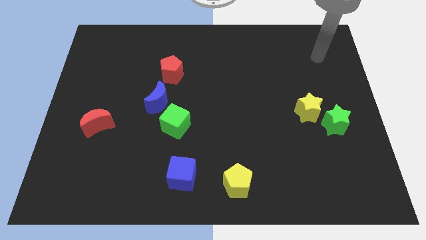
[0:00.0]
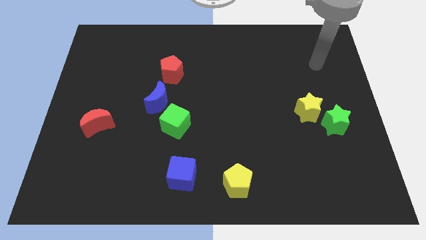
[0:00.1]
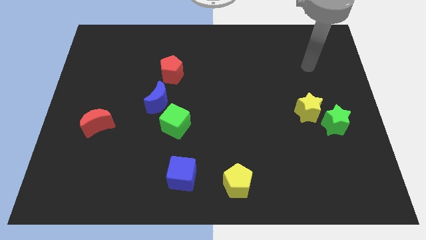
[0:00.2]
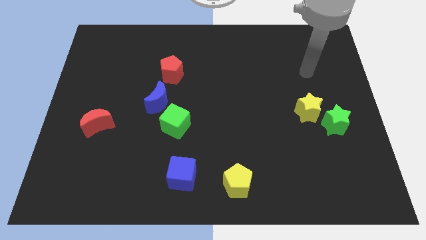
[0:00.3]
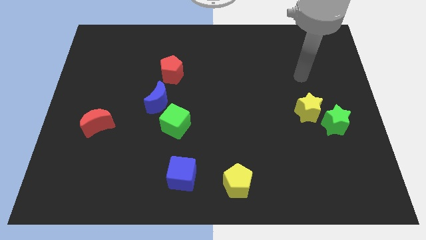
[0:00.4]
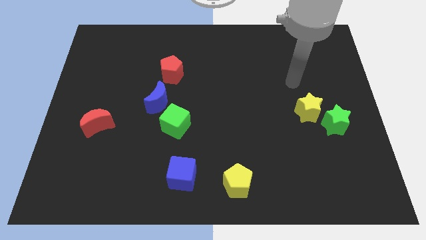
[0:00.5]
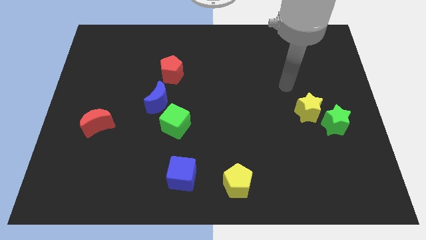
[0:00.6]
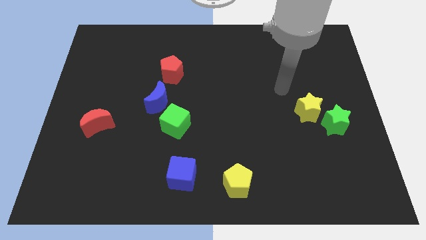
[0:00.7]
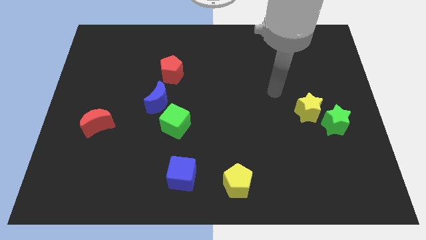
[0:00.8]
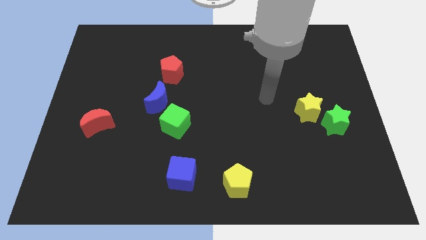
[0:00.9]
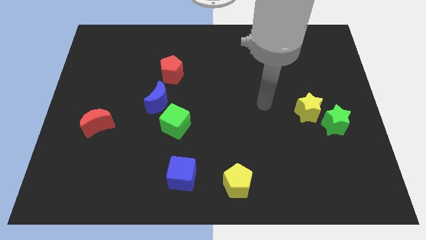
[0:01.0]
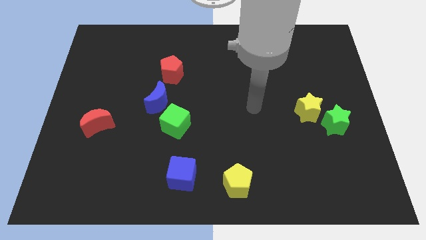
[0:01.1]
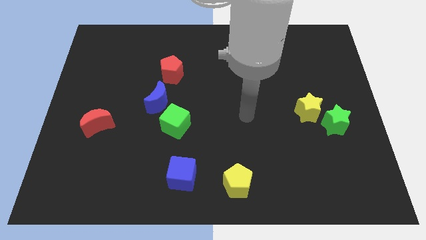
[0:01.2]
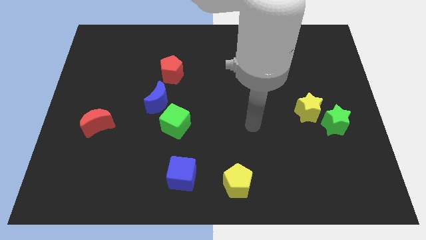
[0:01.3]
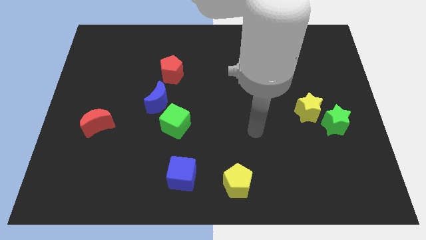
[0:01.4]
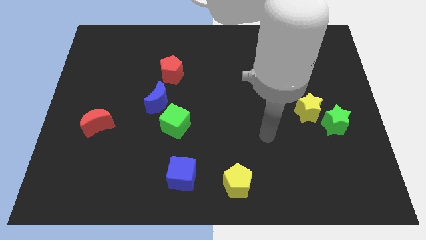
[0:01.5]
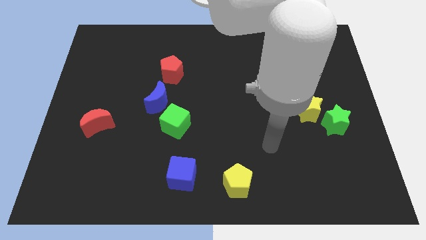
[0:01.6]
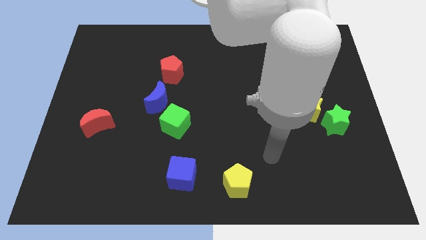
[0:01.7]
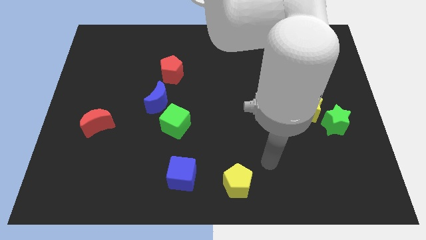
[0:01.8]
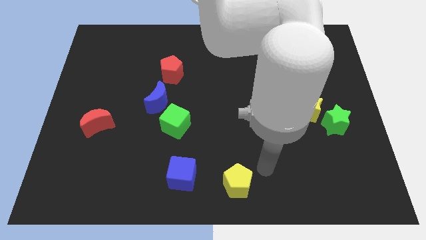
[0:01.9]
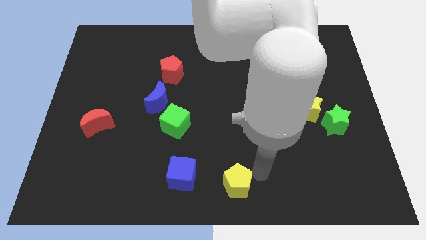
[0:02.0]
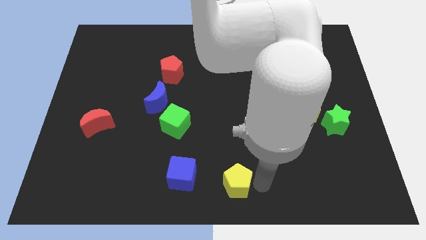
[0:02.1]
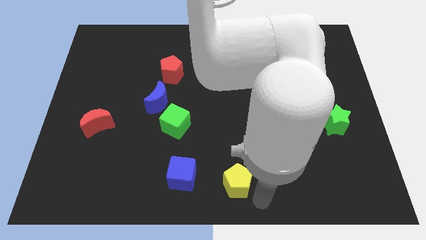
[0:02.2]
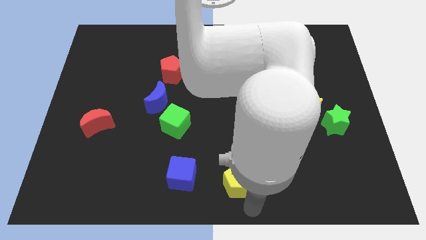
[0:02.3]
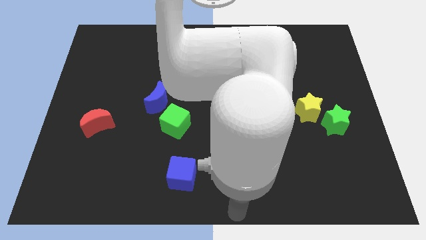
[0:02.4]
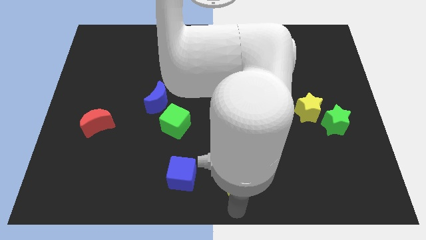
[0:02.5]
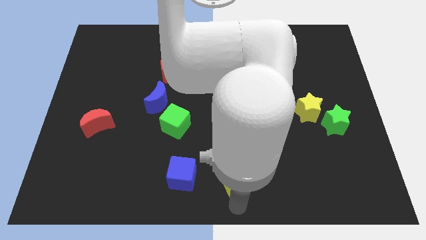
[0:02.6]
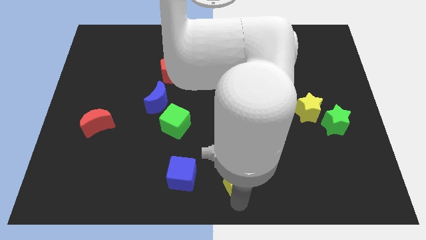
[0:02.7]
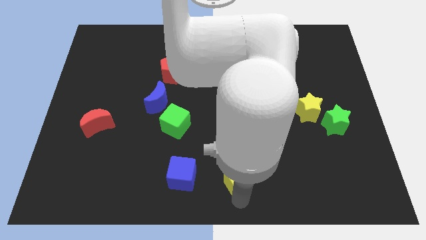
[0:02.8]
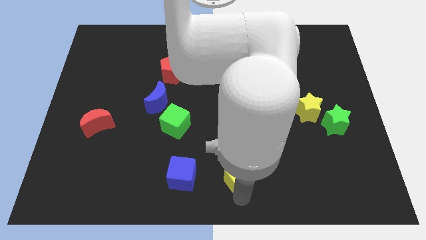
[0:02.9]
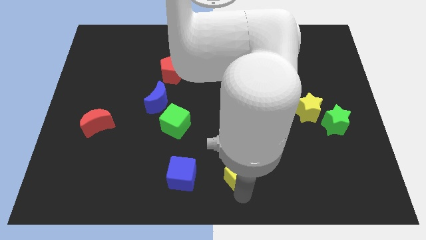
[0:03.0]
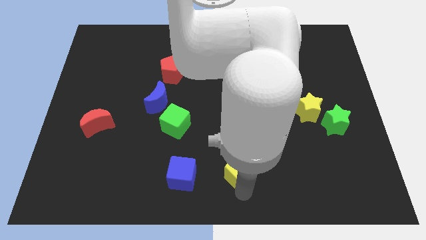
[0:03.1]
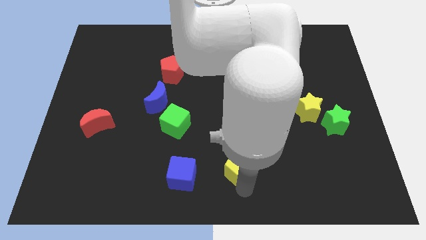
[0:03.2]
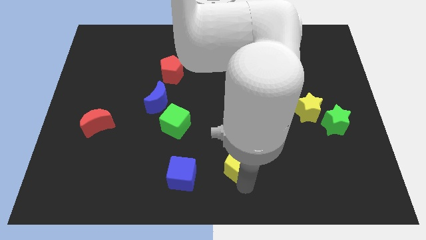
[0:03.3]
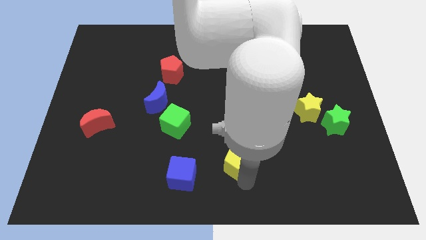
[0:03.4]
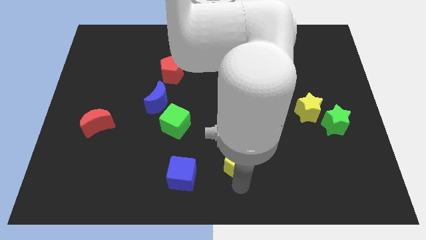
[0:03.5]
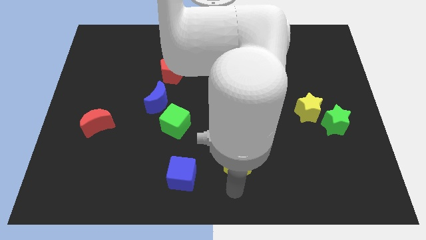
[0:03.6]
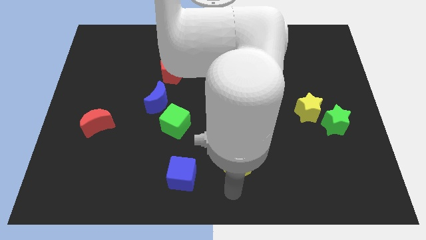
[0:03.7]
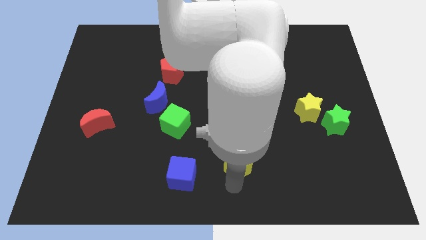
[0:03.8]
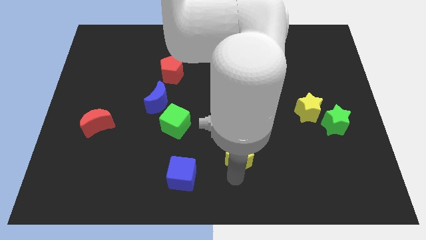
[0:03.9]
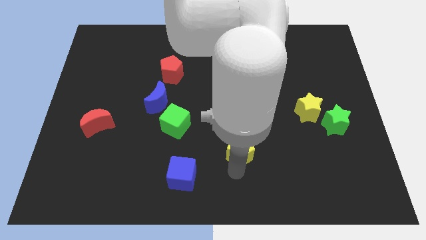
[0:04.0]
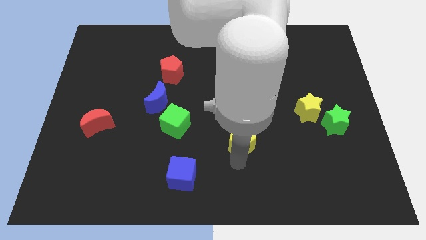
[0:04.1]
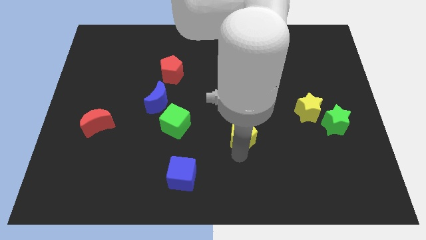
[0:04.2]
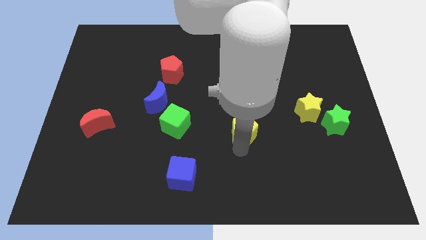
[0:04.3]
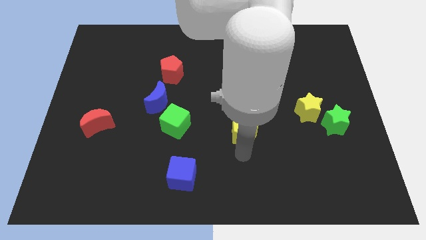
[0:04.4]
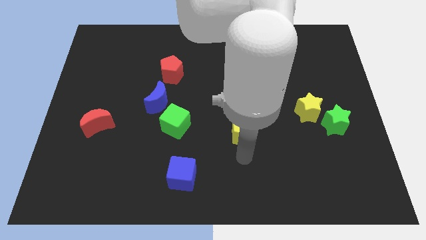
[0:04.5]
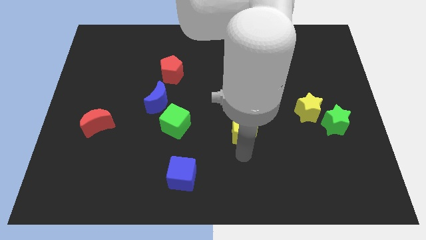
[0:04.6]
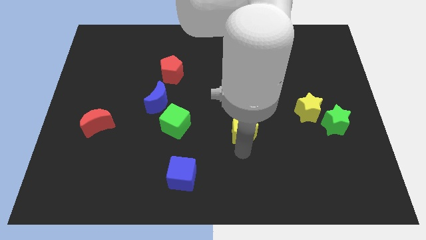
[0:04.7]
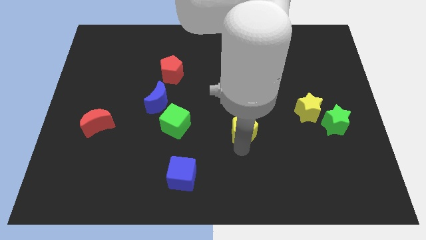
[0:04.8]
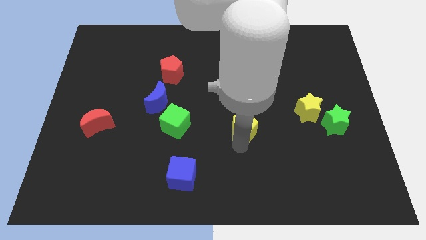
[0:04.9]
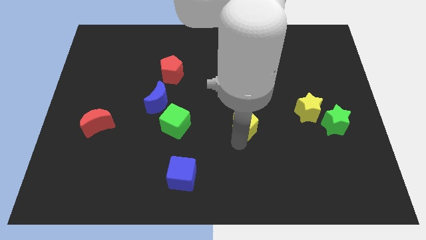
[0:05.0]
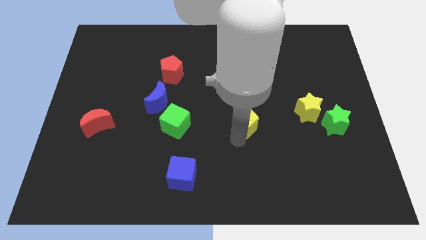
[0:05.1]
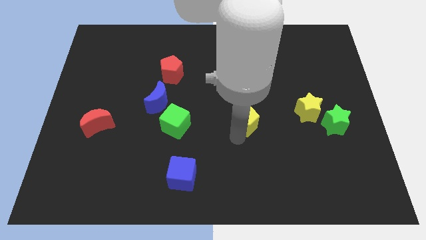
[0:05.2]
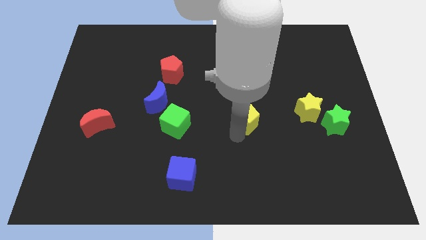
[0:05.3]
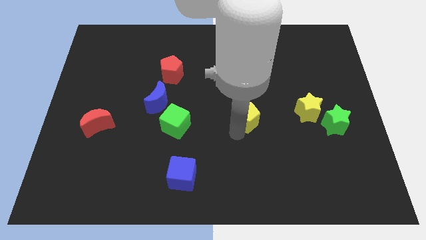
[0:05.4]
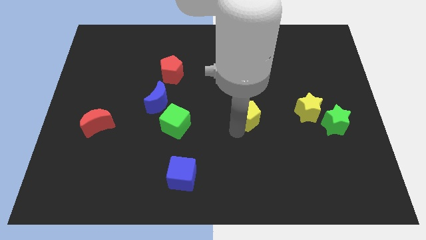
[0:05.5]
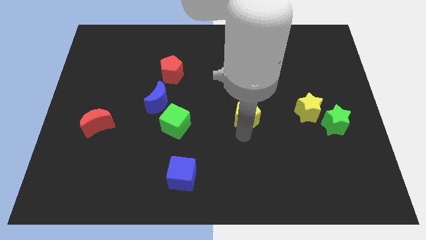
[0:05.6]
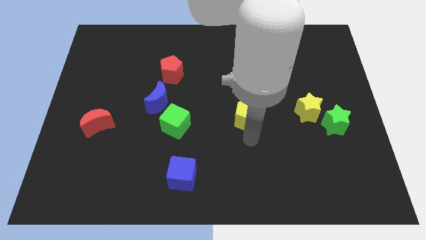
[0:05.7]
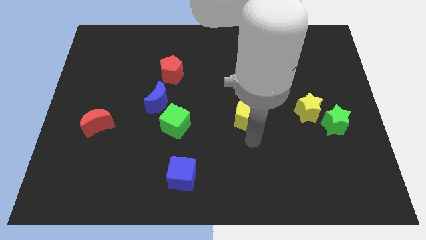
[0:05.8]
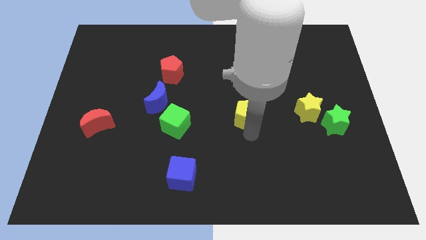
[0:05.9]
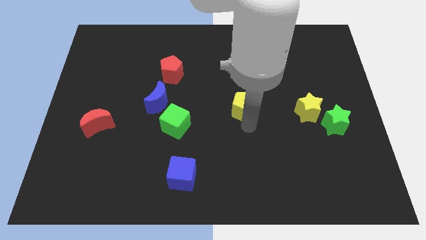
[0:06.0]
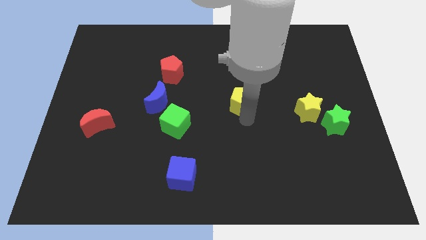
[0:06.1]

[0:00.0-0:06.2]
move the yellow pentagon up

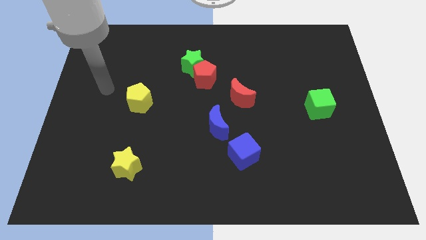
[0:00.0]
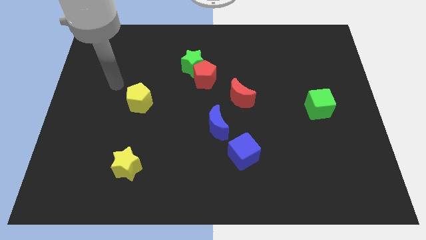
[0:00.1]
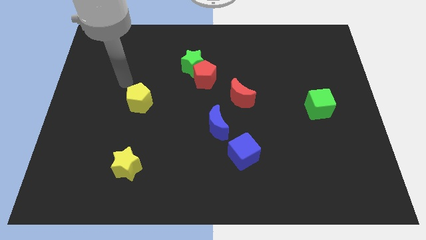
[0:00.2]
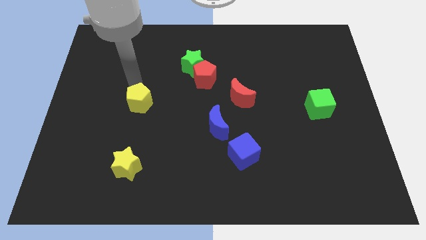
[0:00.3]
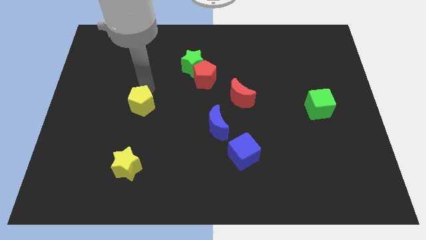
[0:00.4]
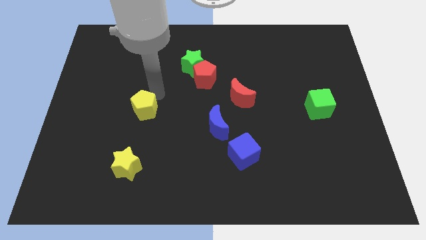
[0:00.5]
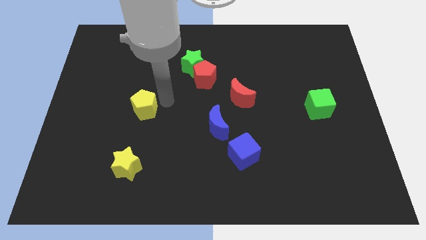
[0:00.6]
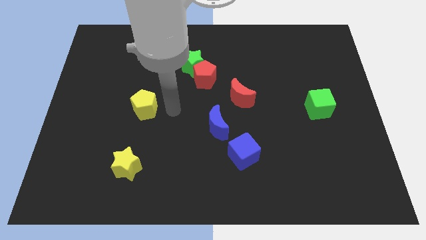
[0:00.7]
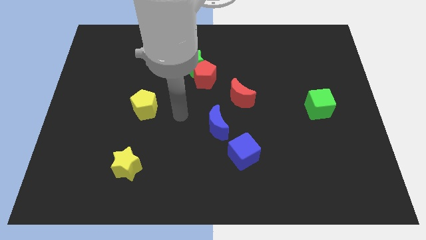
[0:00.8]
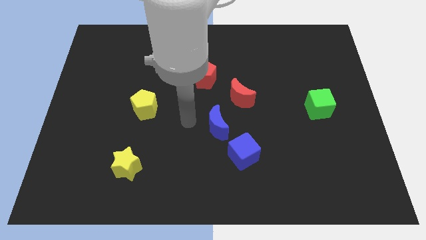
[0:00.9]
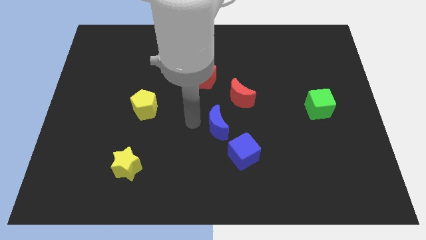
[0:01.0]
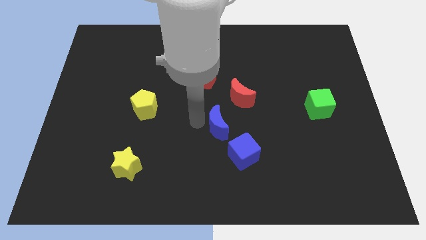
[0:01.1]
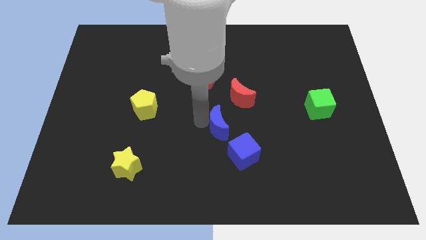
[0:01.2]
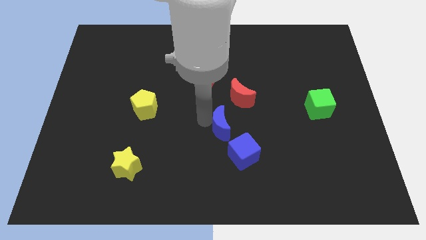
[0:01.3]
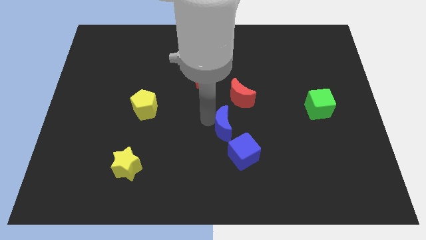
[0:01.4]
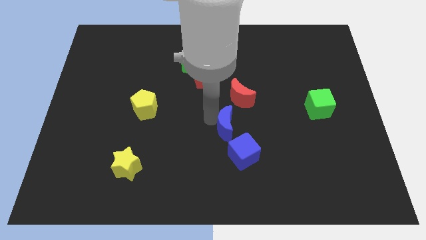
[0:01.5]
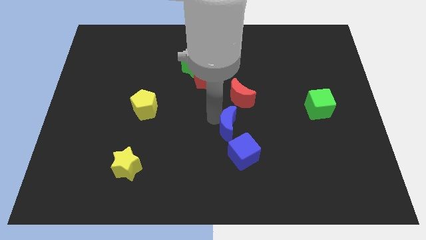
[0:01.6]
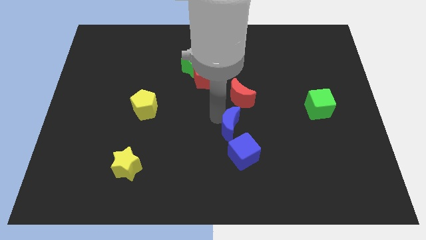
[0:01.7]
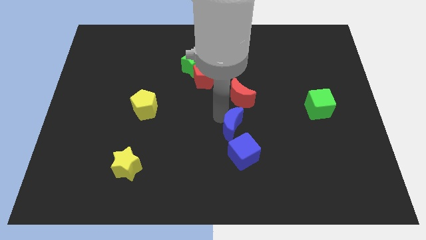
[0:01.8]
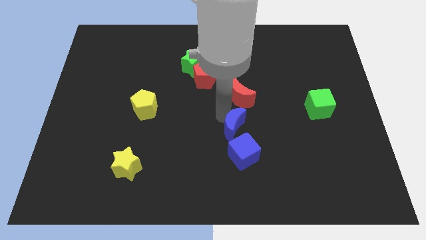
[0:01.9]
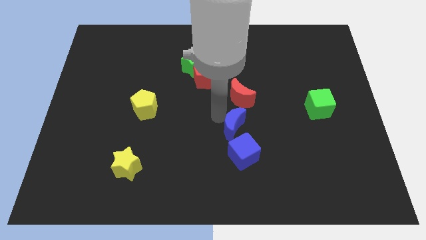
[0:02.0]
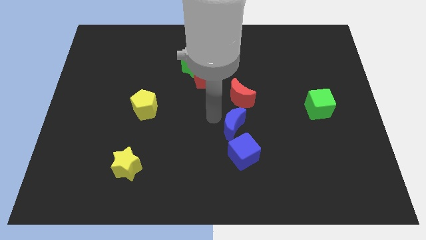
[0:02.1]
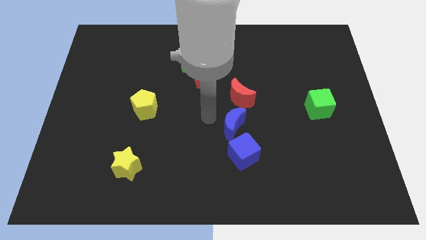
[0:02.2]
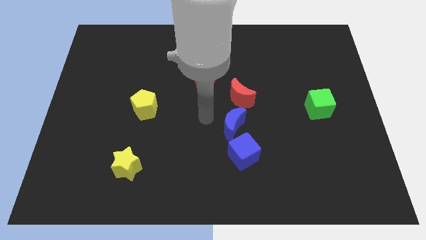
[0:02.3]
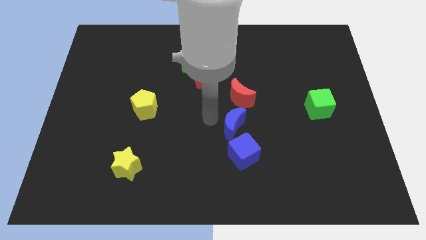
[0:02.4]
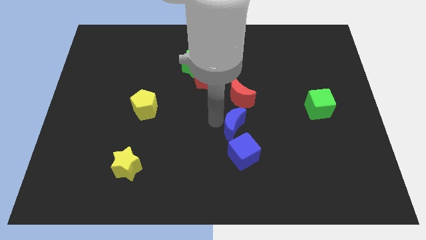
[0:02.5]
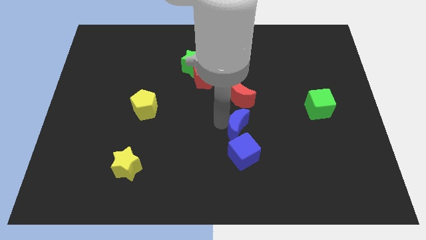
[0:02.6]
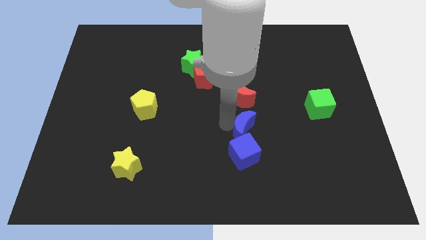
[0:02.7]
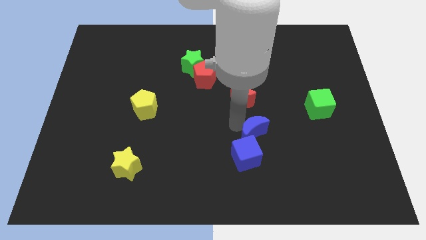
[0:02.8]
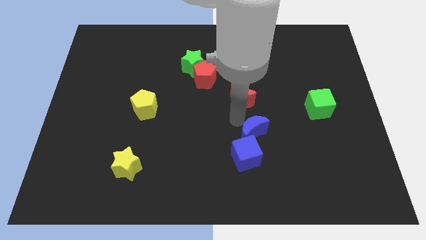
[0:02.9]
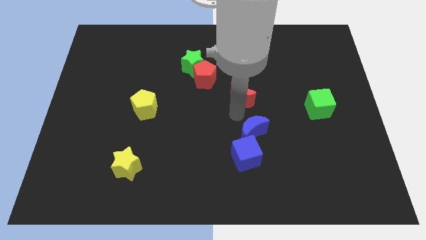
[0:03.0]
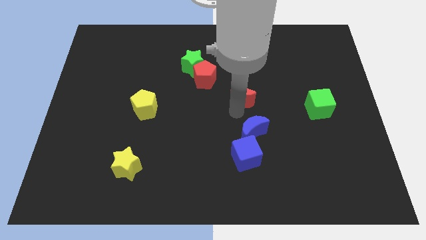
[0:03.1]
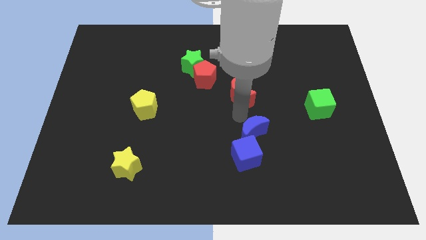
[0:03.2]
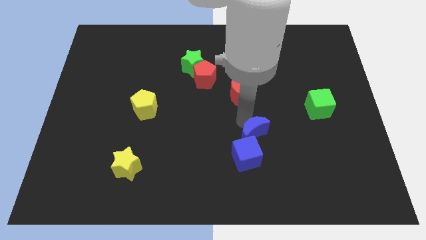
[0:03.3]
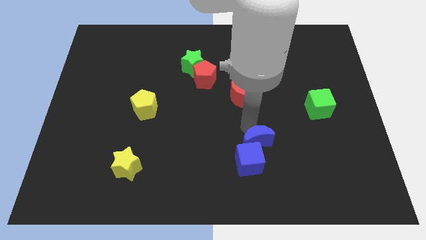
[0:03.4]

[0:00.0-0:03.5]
push the blue moon downwards and then right a bit
